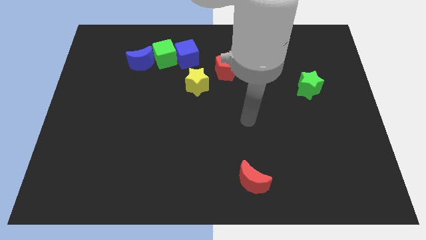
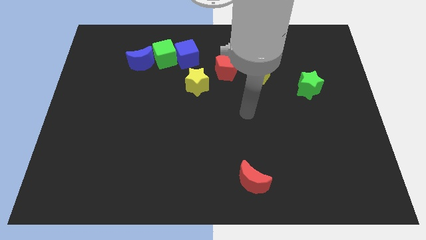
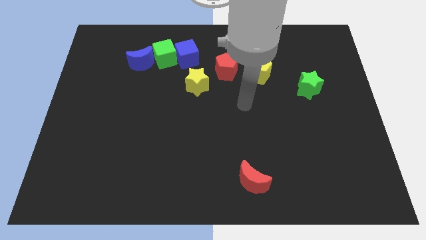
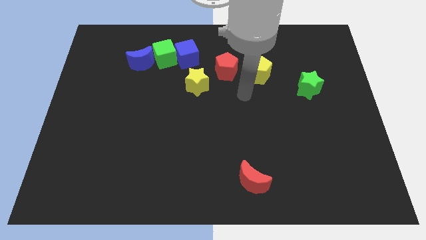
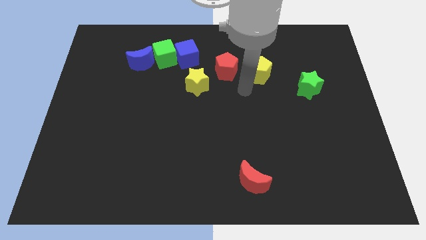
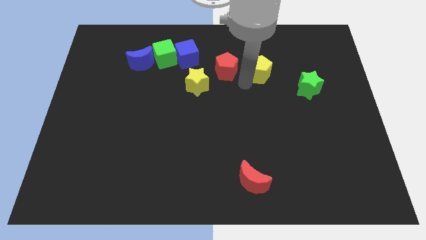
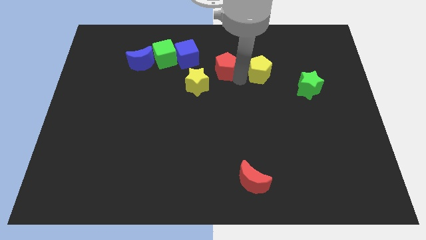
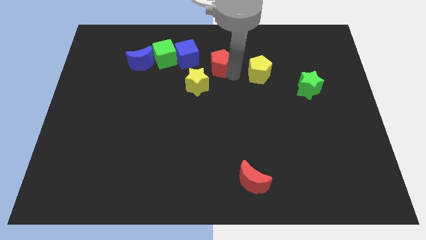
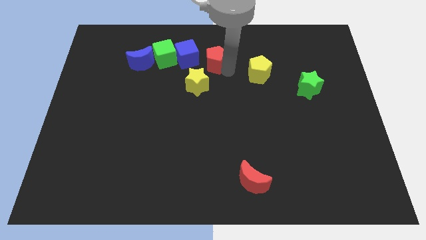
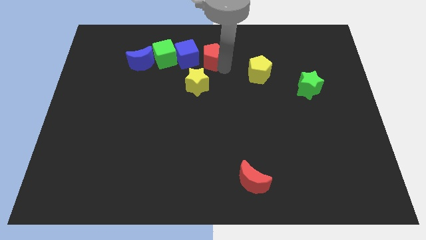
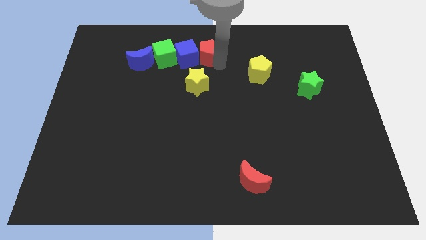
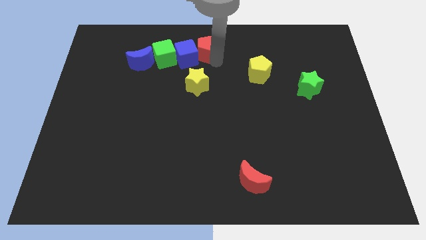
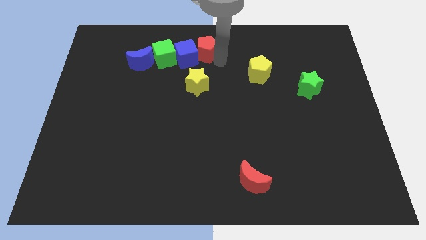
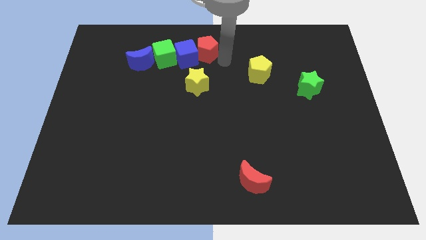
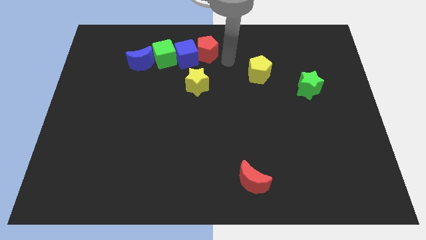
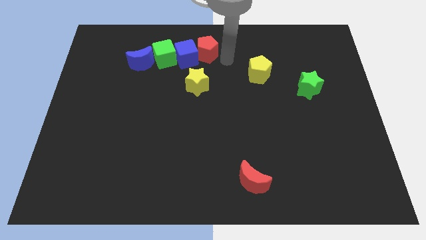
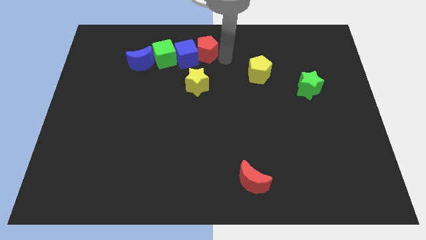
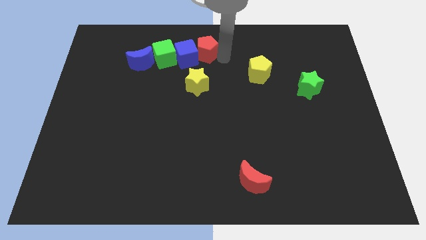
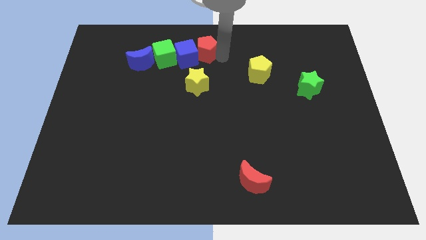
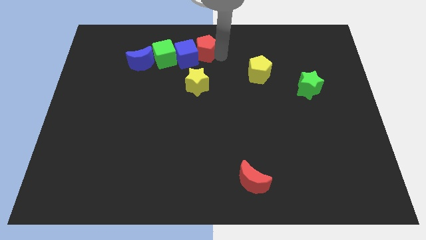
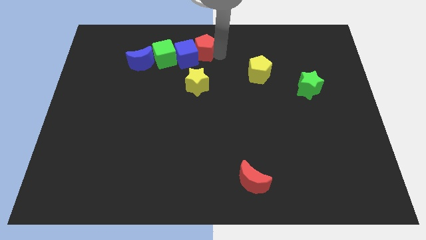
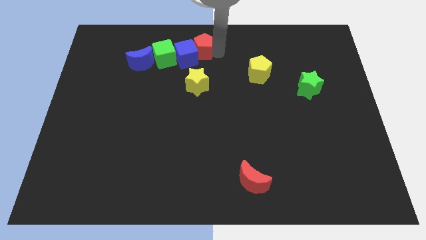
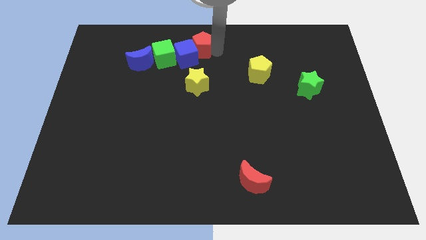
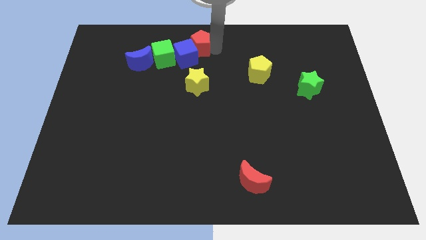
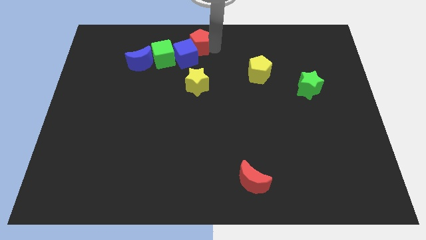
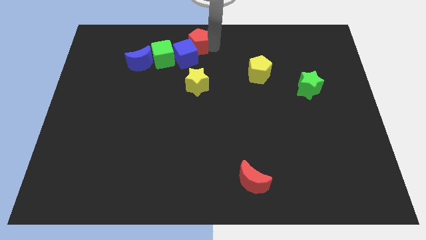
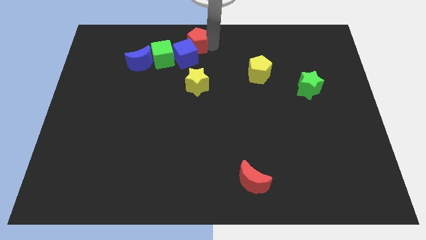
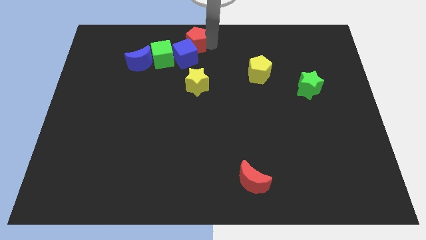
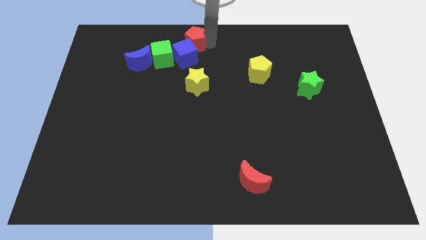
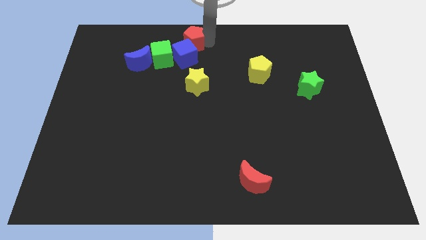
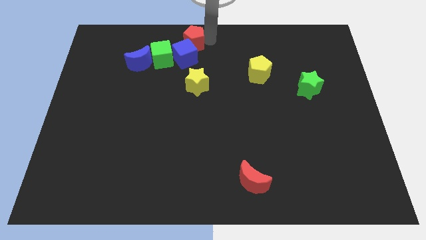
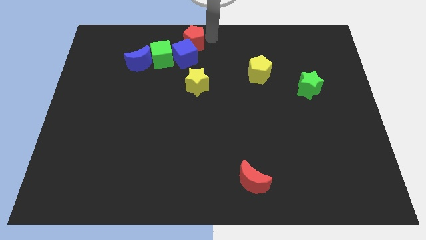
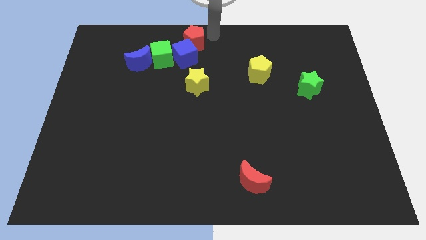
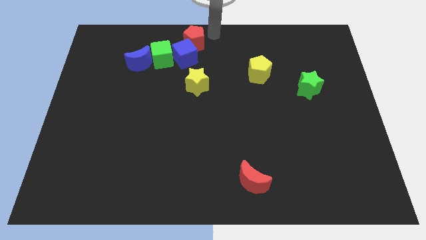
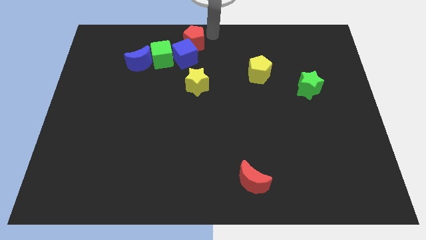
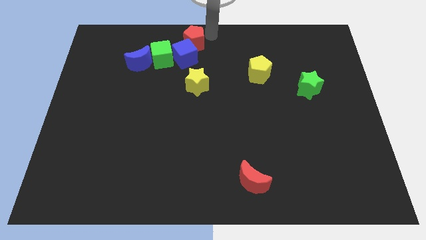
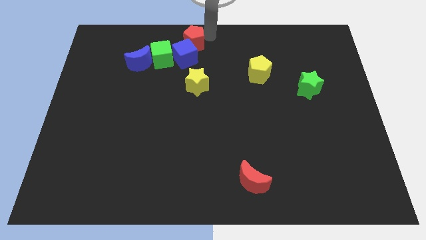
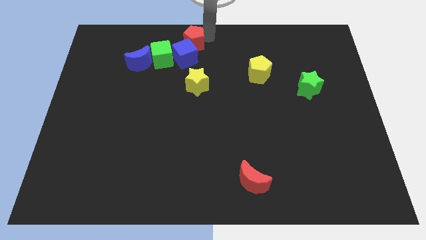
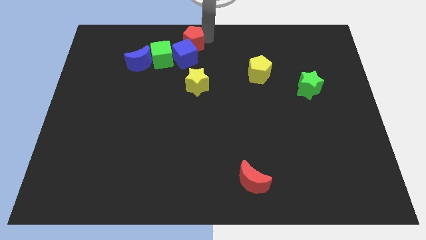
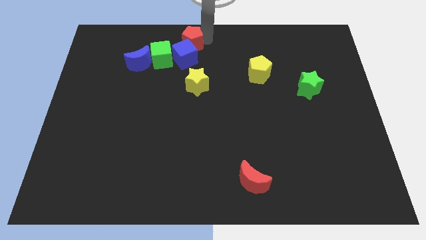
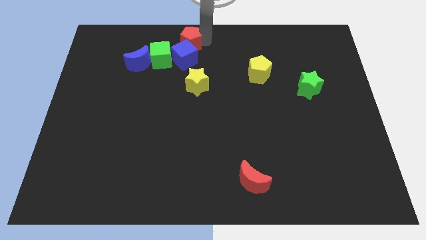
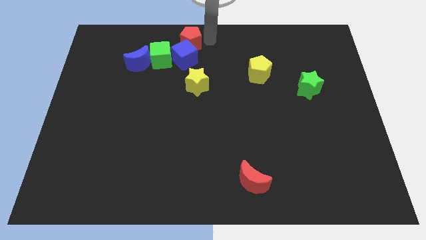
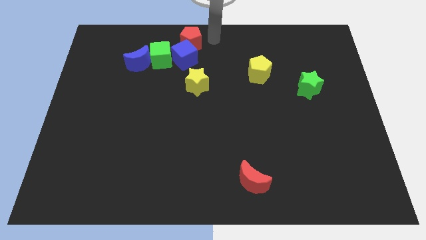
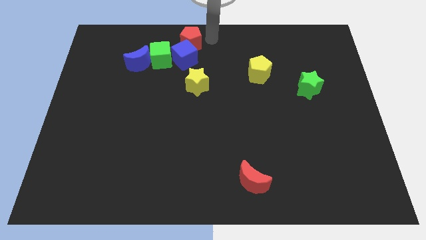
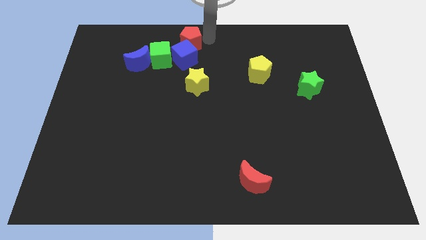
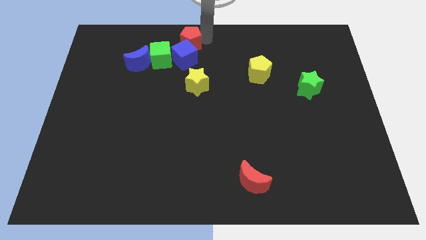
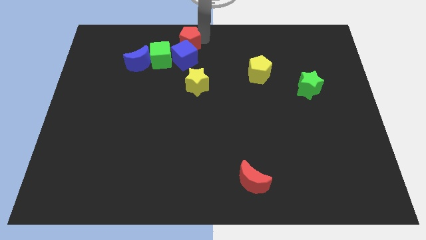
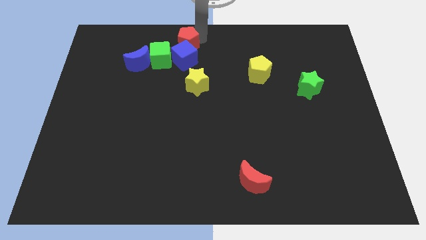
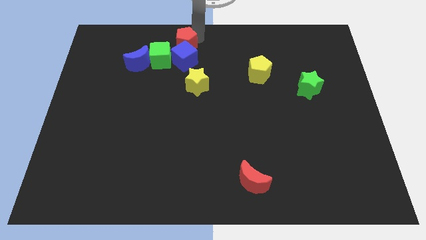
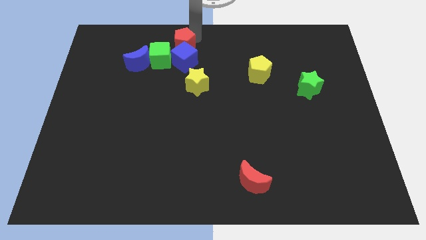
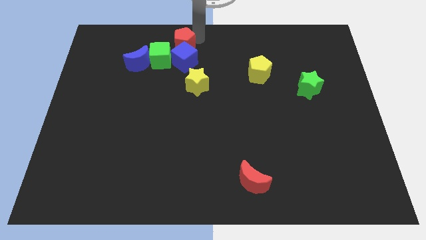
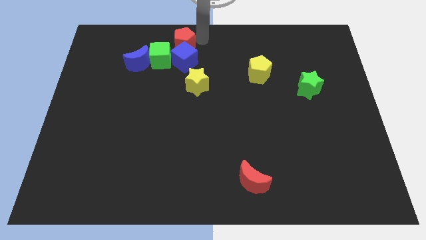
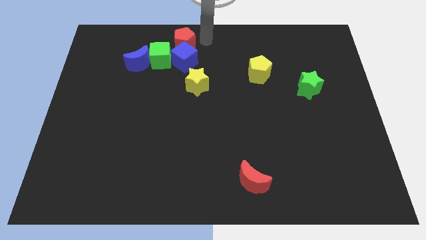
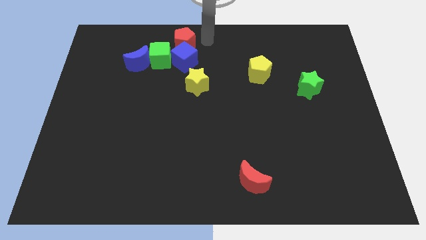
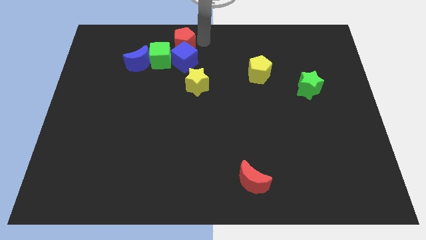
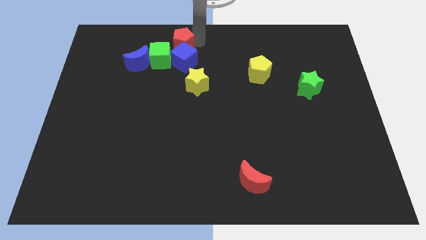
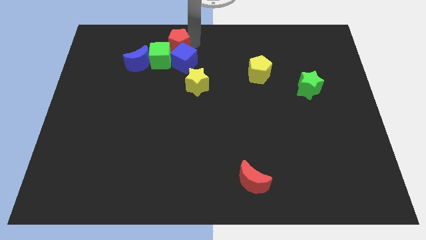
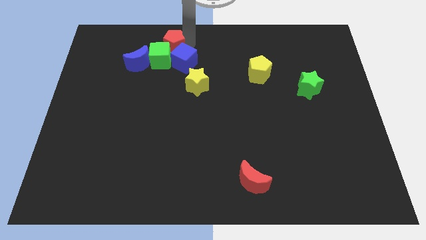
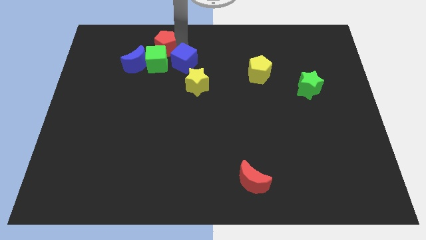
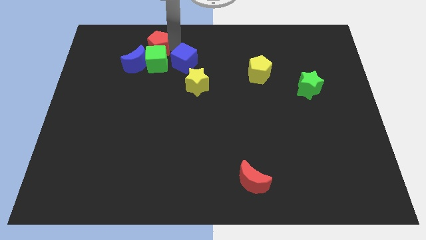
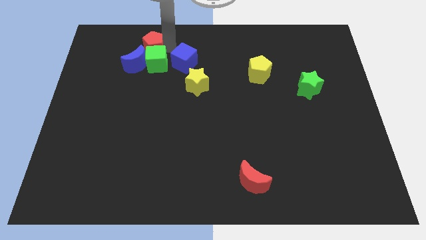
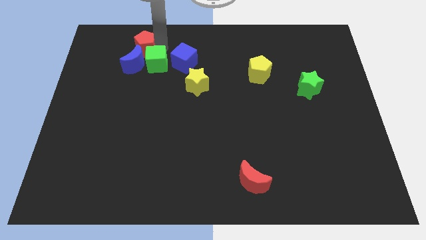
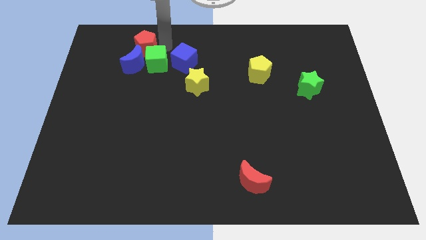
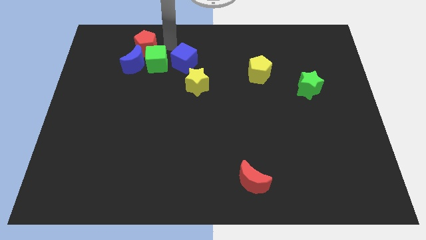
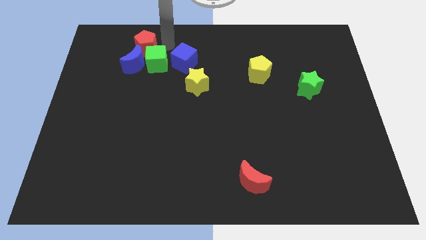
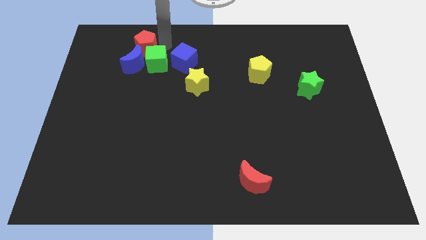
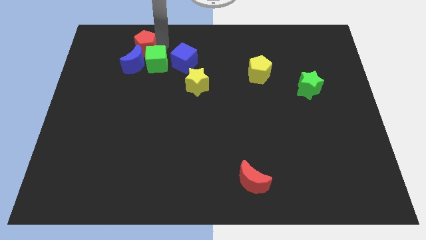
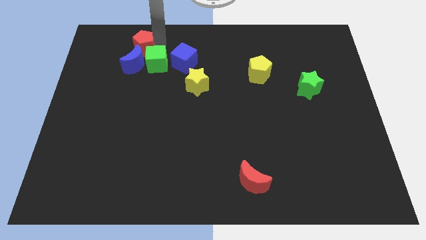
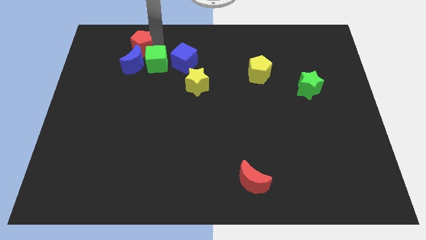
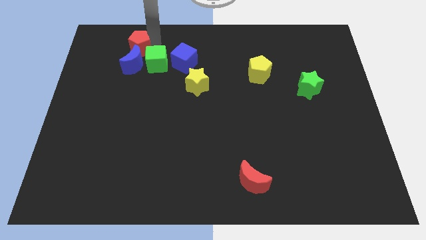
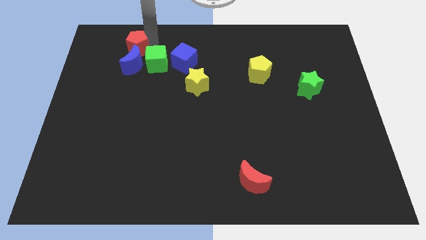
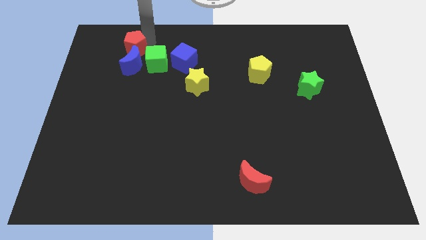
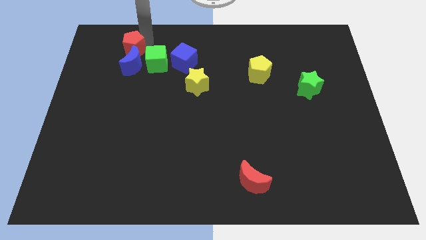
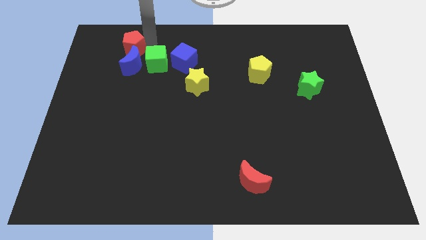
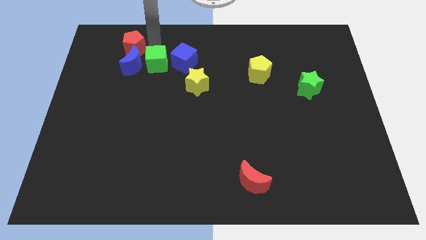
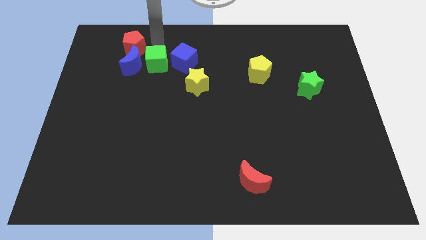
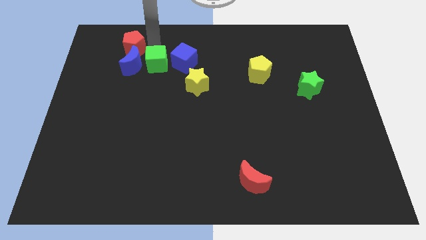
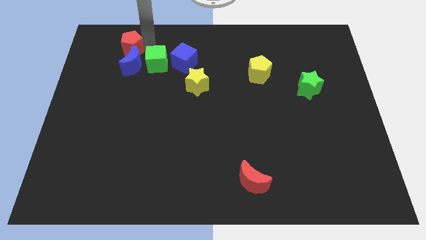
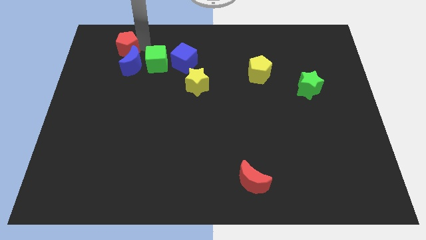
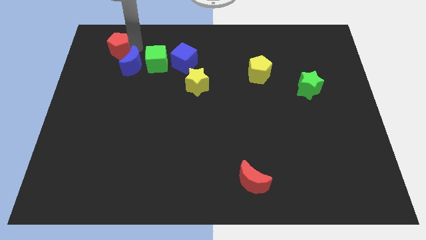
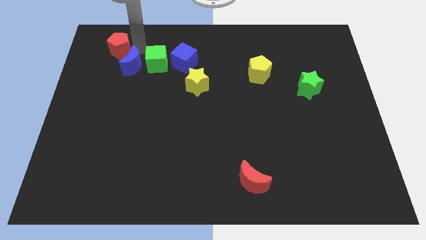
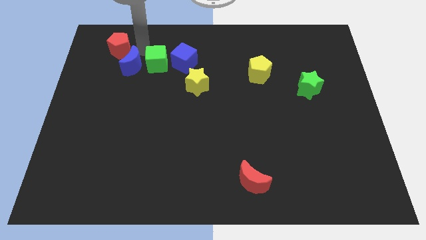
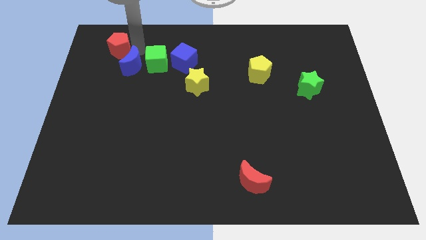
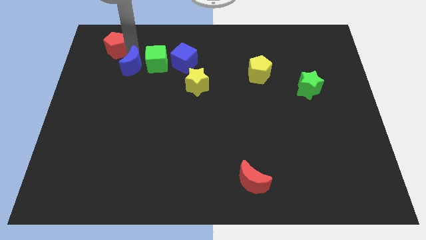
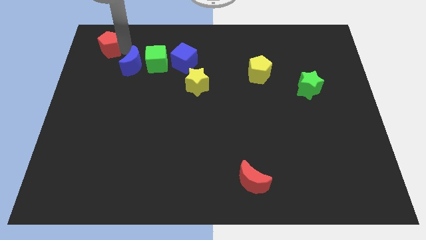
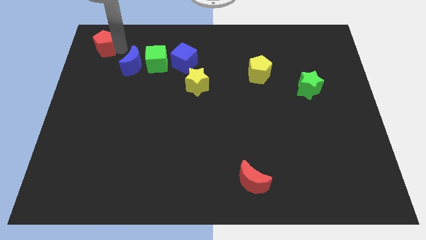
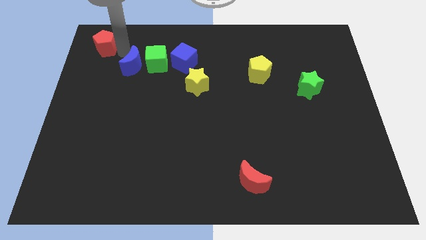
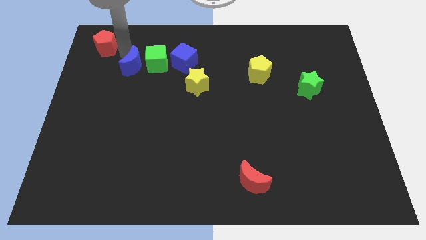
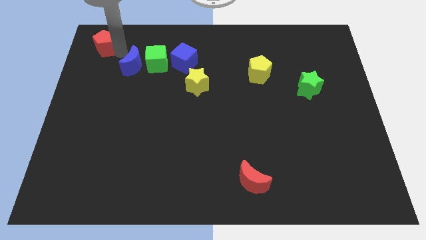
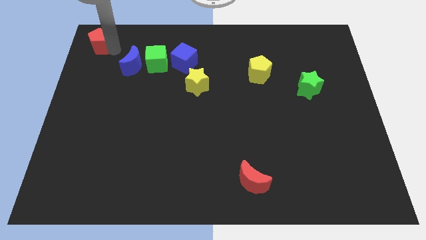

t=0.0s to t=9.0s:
put the red pentagon to the top left corner
